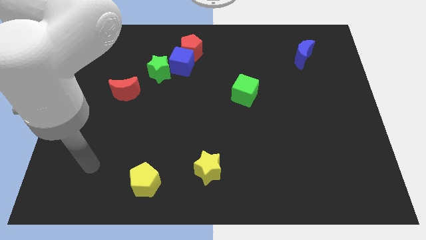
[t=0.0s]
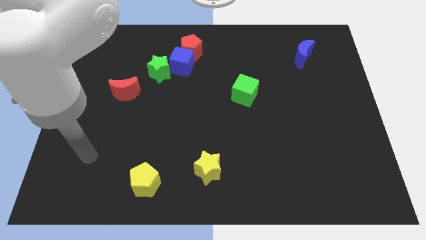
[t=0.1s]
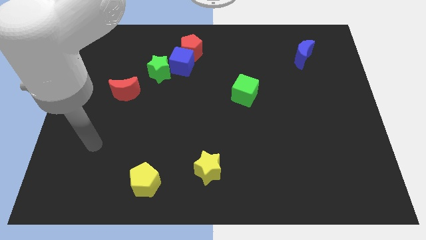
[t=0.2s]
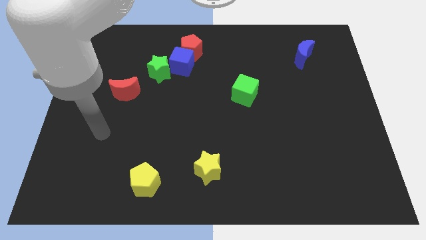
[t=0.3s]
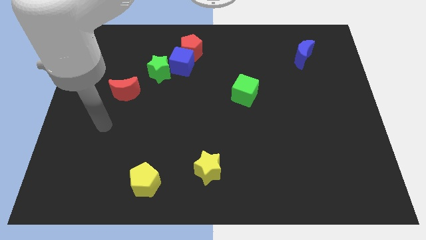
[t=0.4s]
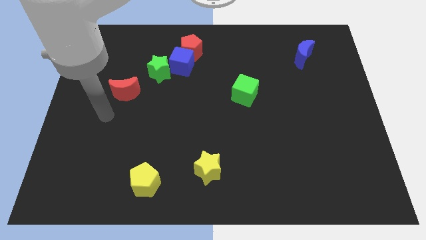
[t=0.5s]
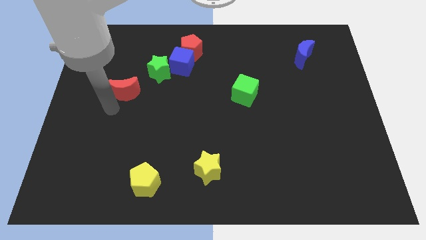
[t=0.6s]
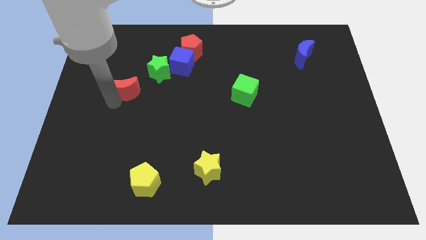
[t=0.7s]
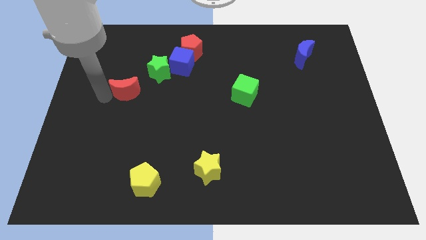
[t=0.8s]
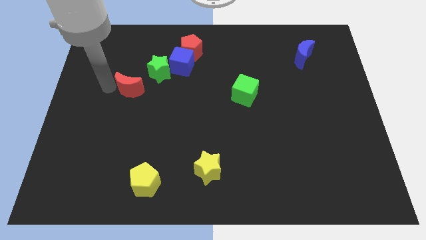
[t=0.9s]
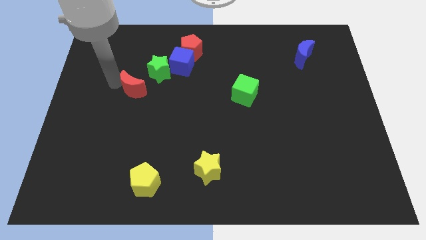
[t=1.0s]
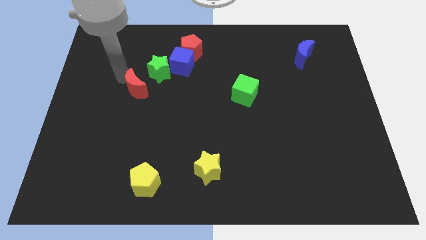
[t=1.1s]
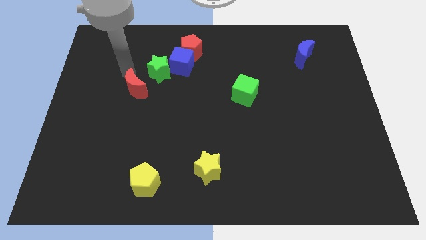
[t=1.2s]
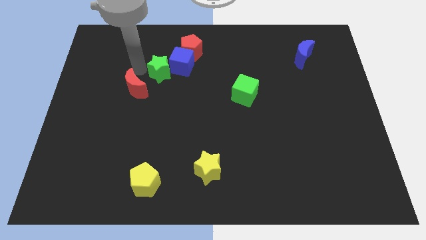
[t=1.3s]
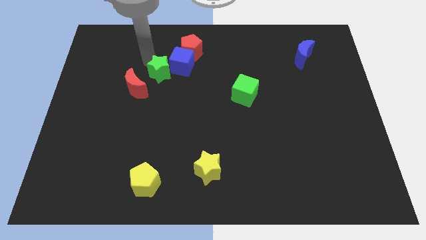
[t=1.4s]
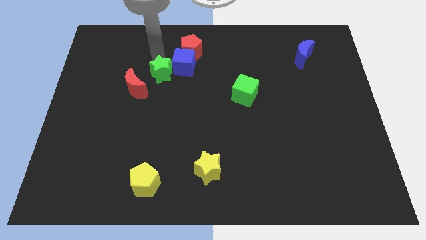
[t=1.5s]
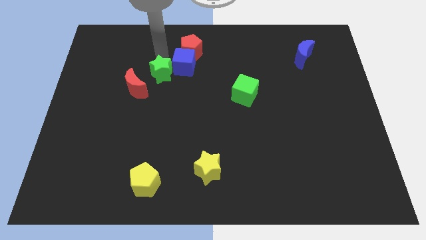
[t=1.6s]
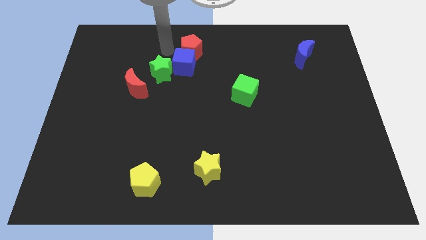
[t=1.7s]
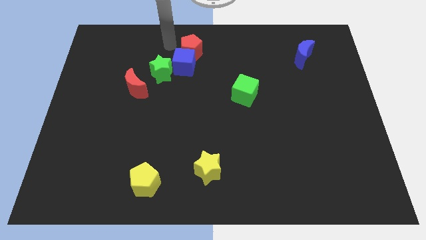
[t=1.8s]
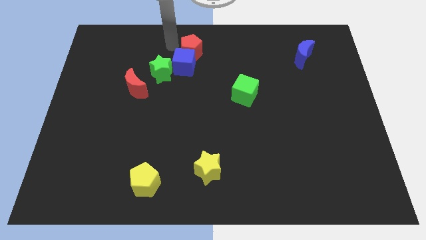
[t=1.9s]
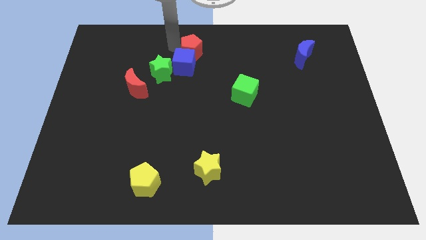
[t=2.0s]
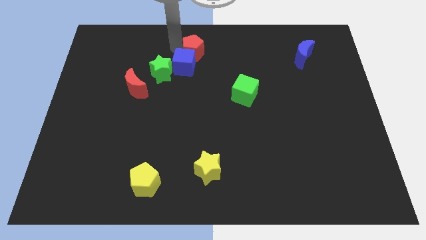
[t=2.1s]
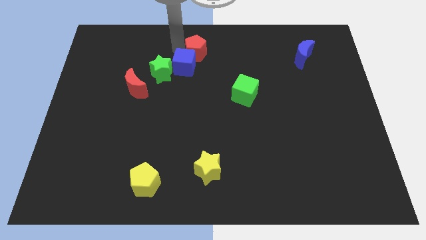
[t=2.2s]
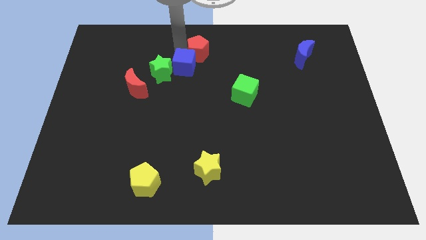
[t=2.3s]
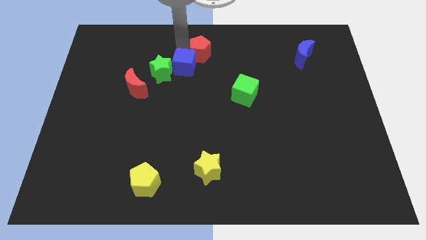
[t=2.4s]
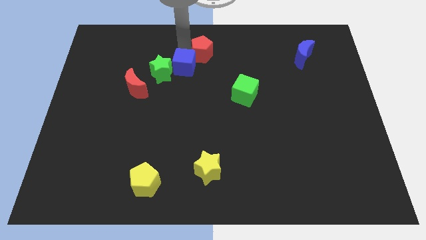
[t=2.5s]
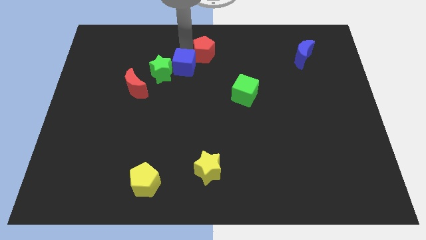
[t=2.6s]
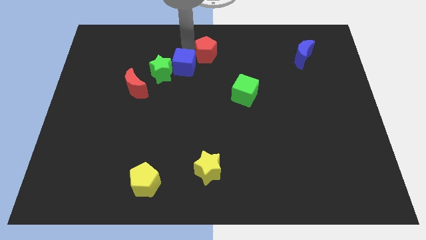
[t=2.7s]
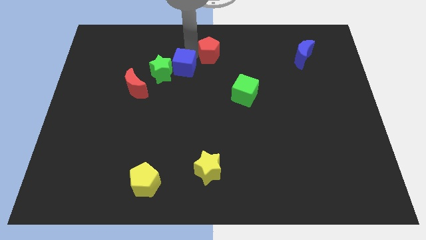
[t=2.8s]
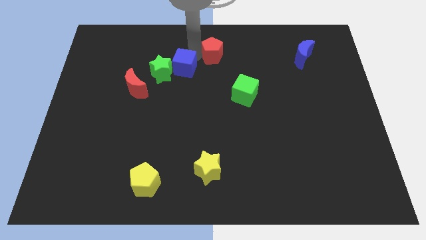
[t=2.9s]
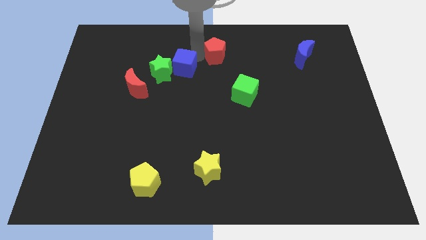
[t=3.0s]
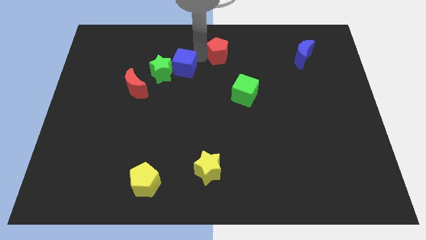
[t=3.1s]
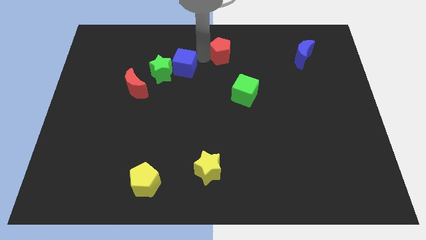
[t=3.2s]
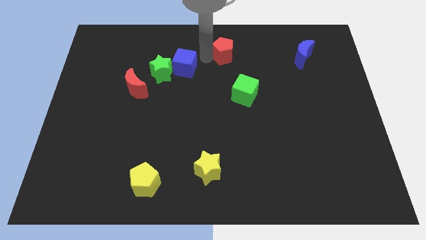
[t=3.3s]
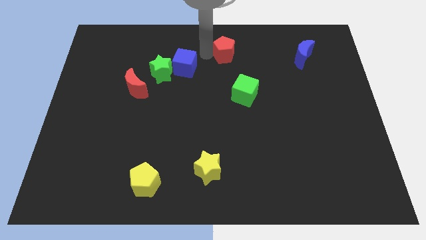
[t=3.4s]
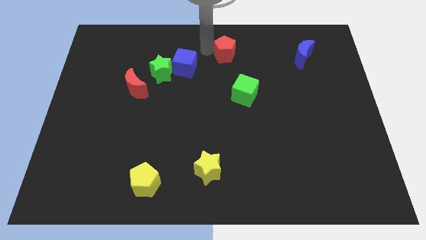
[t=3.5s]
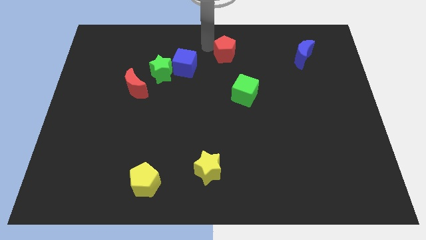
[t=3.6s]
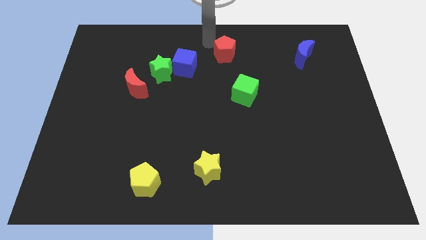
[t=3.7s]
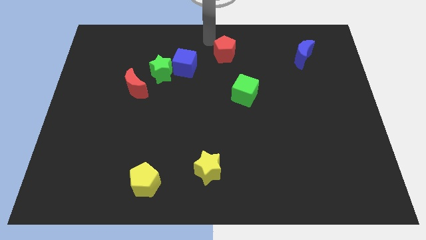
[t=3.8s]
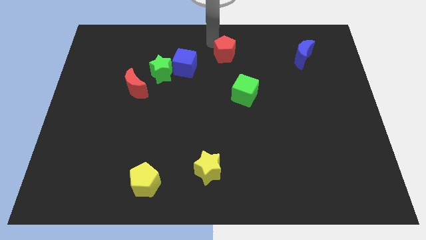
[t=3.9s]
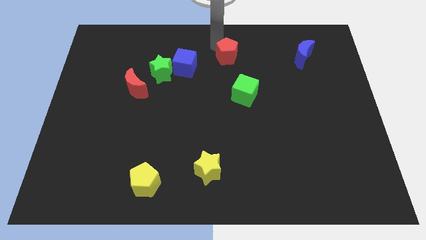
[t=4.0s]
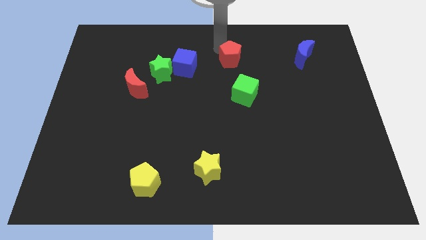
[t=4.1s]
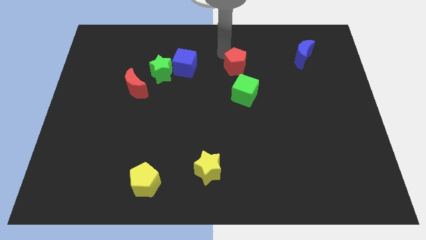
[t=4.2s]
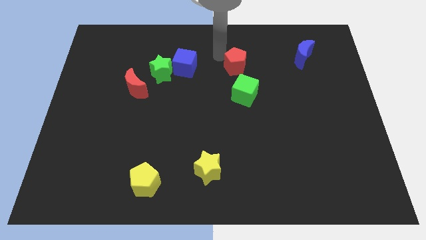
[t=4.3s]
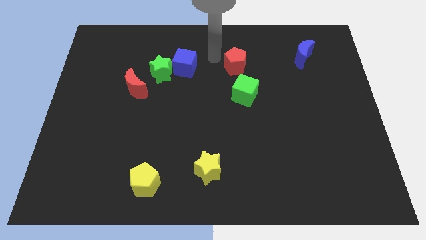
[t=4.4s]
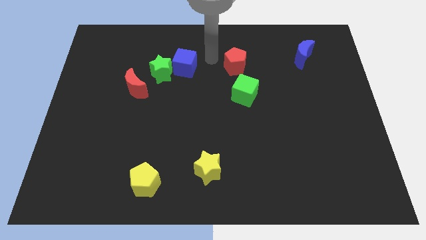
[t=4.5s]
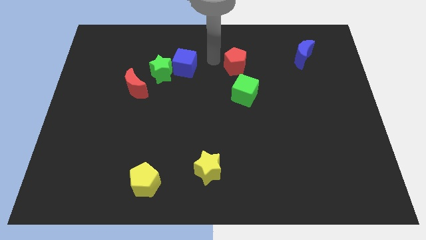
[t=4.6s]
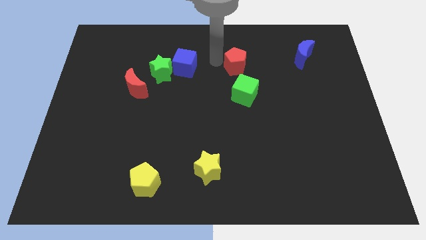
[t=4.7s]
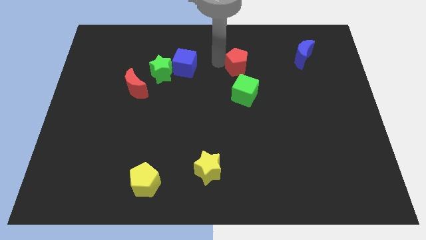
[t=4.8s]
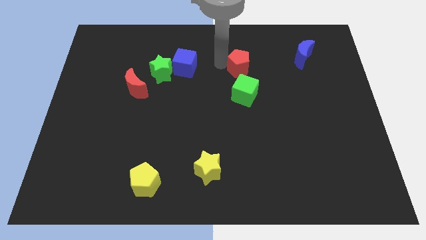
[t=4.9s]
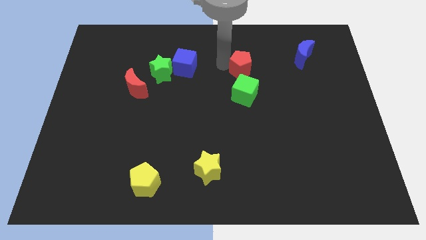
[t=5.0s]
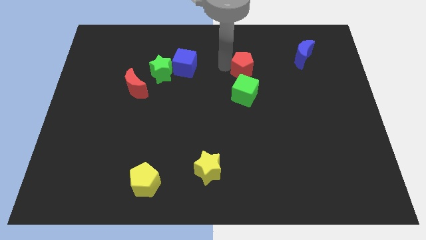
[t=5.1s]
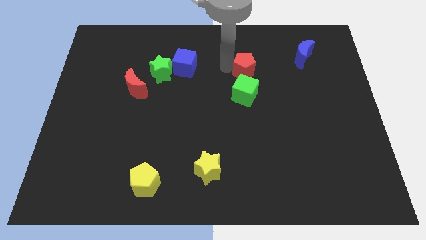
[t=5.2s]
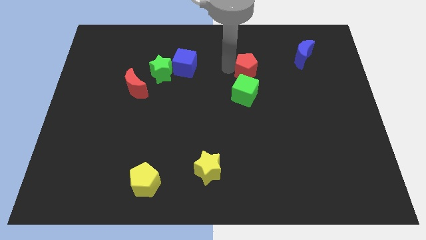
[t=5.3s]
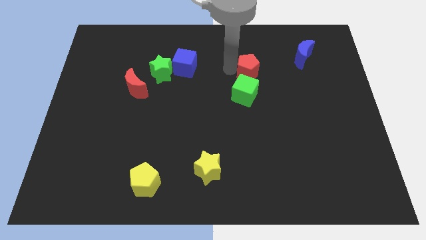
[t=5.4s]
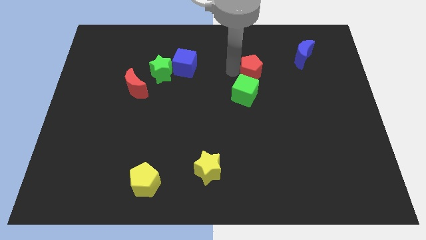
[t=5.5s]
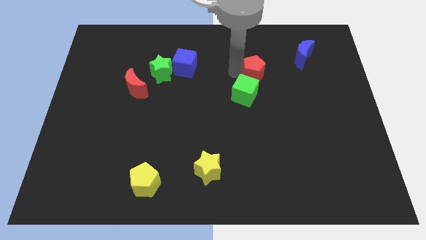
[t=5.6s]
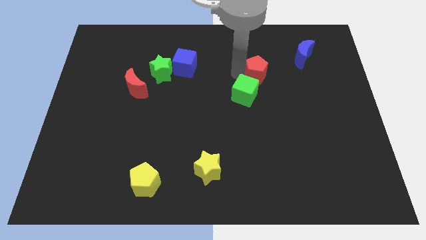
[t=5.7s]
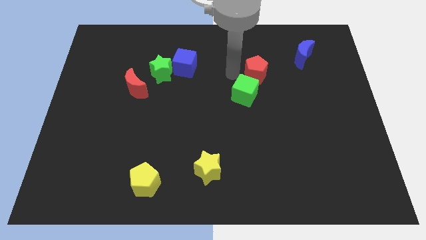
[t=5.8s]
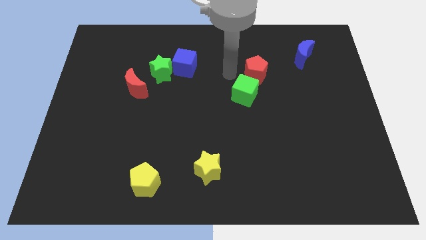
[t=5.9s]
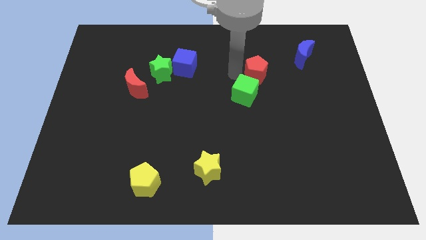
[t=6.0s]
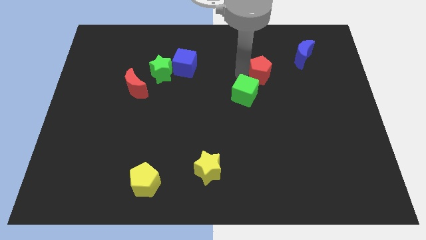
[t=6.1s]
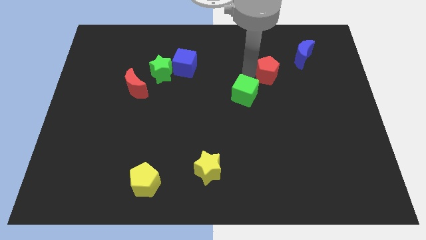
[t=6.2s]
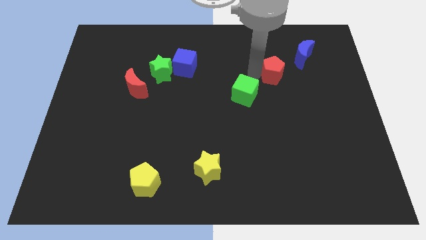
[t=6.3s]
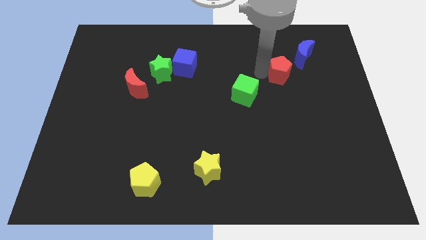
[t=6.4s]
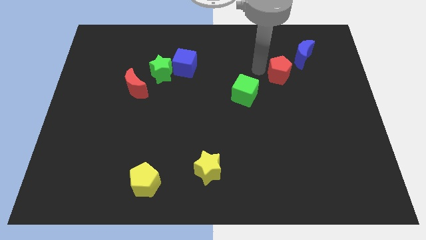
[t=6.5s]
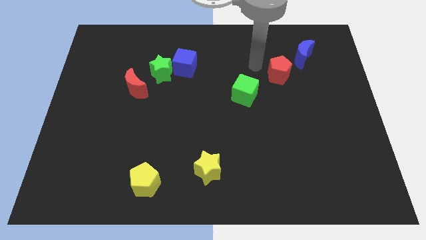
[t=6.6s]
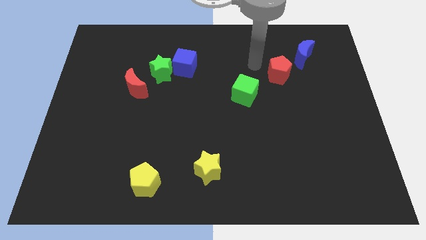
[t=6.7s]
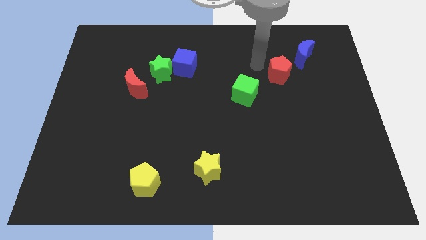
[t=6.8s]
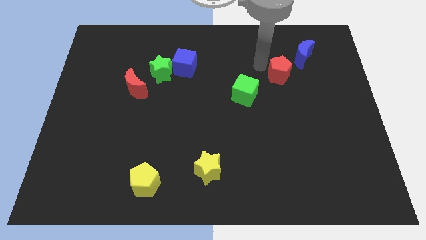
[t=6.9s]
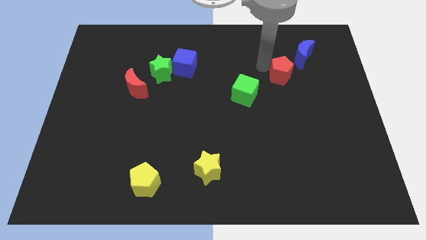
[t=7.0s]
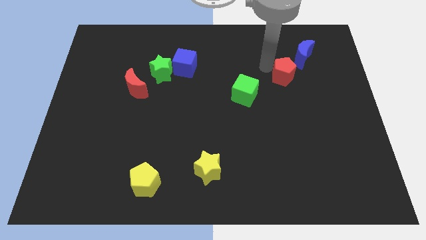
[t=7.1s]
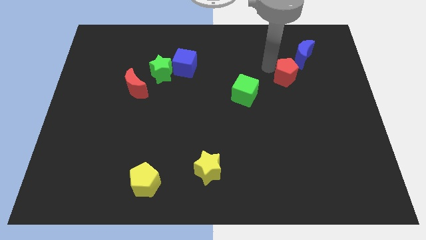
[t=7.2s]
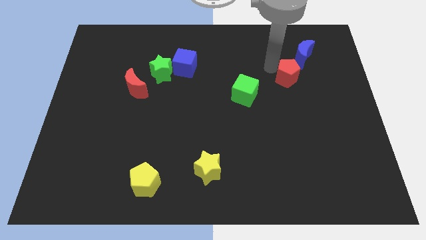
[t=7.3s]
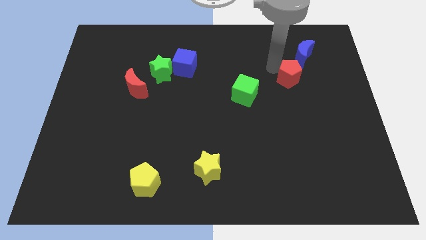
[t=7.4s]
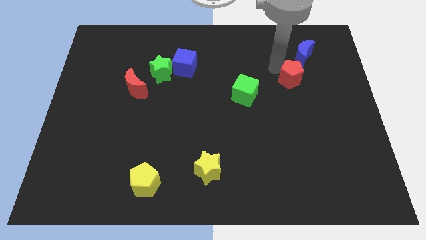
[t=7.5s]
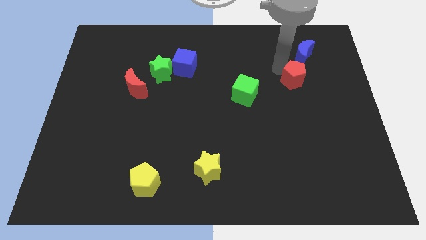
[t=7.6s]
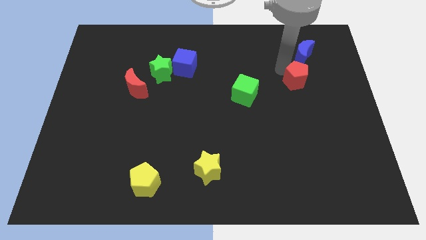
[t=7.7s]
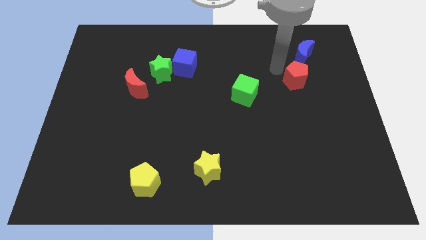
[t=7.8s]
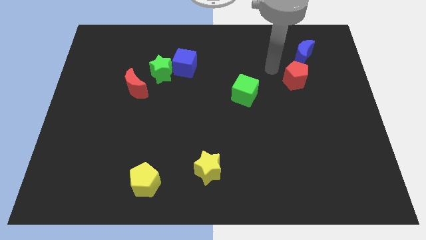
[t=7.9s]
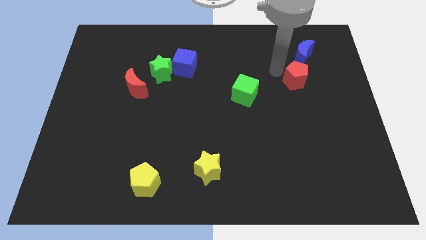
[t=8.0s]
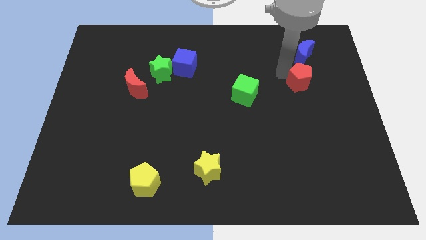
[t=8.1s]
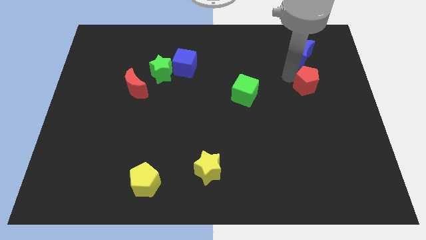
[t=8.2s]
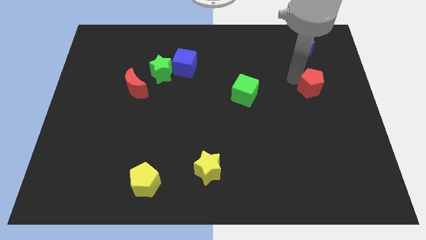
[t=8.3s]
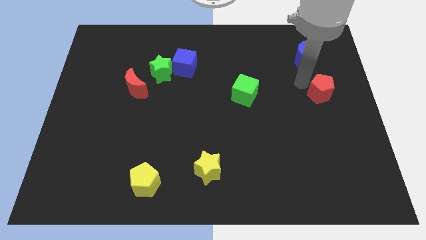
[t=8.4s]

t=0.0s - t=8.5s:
move the red pentagon to the right side
